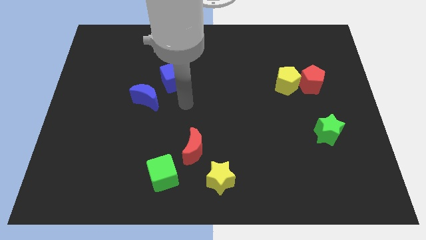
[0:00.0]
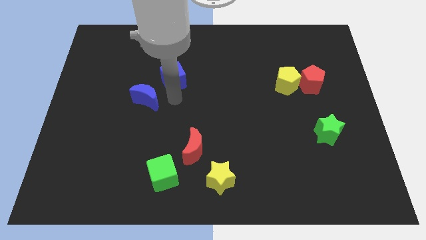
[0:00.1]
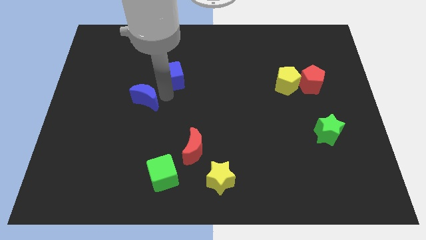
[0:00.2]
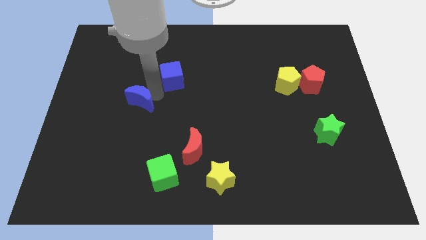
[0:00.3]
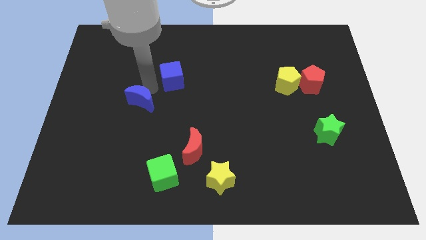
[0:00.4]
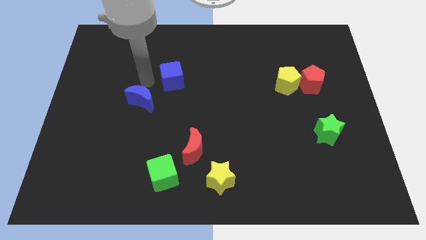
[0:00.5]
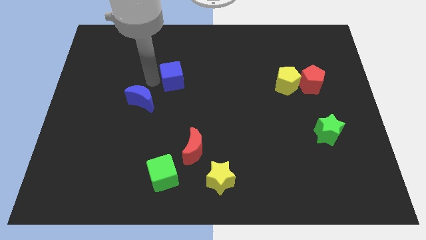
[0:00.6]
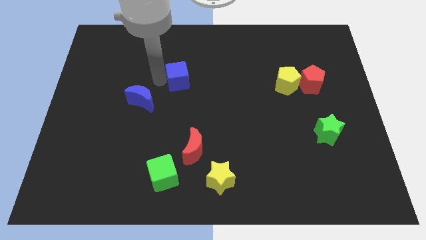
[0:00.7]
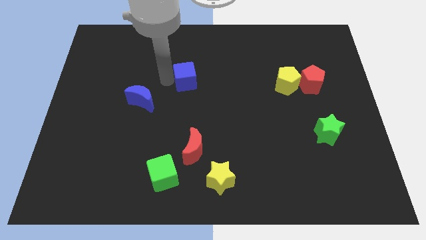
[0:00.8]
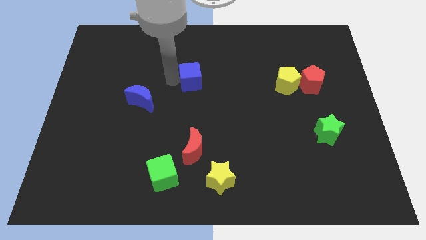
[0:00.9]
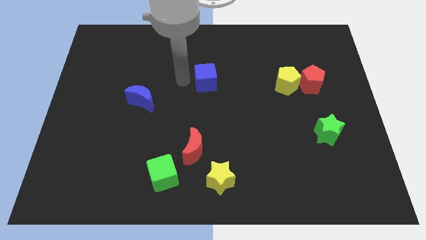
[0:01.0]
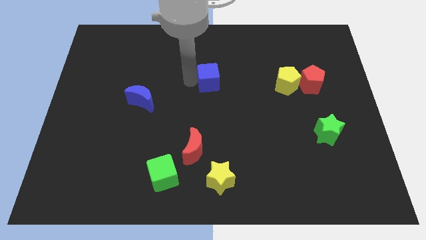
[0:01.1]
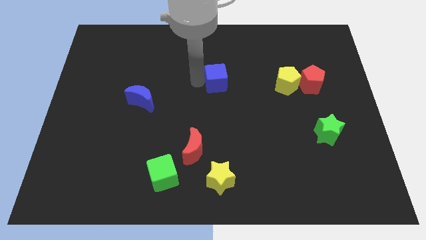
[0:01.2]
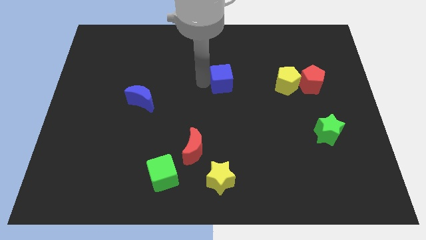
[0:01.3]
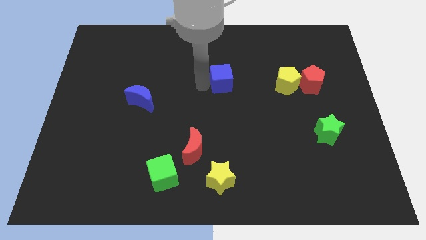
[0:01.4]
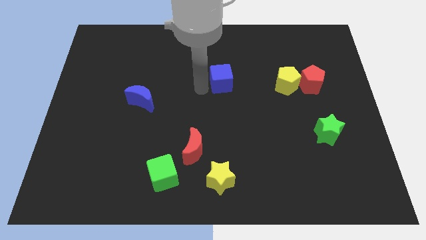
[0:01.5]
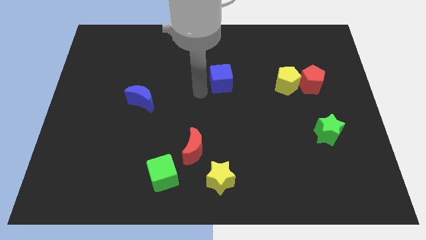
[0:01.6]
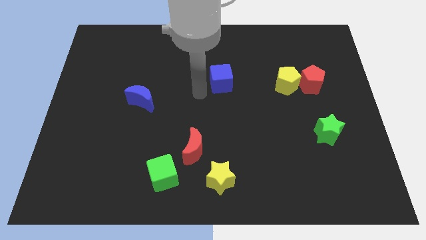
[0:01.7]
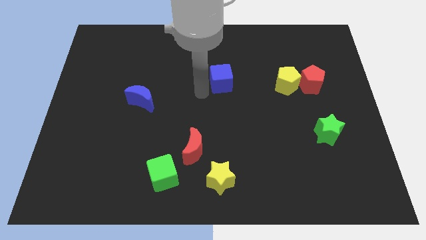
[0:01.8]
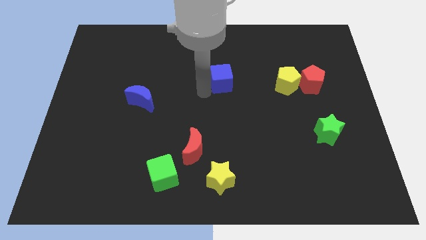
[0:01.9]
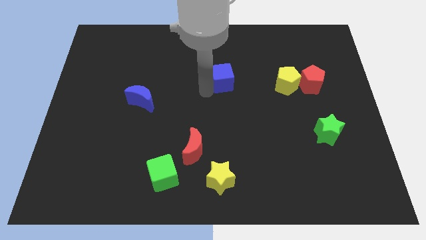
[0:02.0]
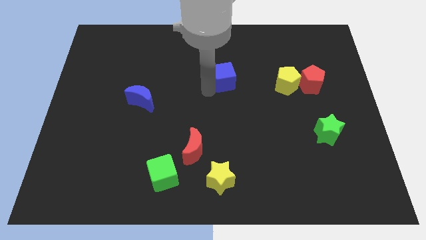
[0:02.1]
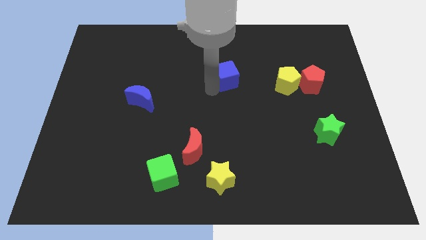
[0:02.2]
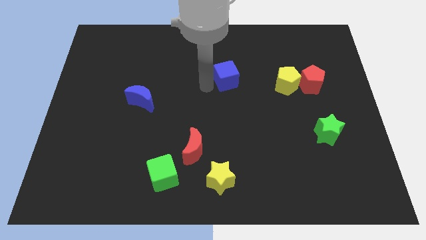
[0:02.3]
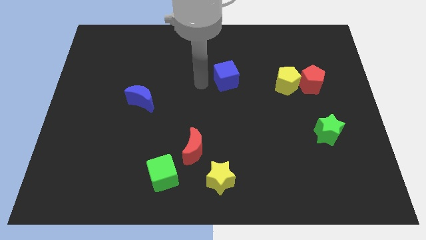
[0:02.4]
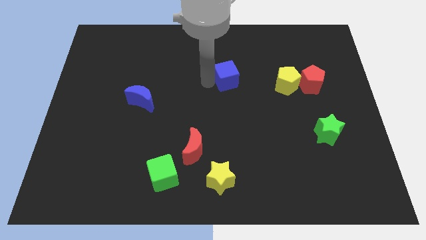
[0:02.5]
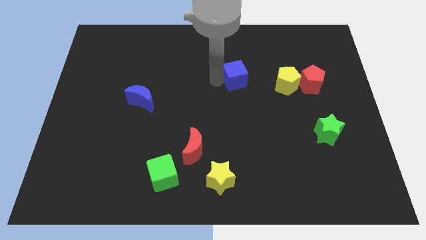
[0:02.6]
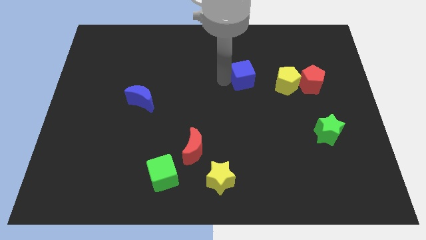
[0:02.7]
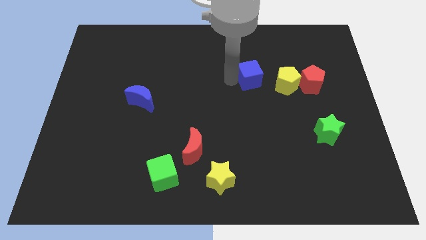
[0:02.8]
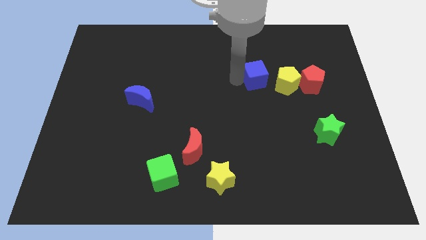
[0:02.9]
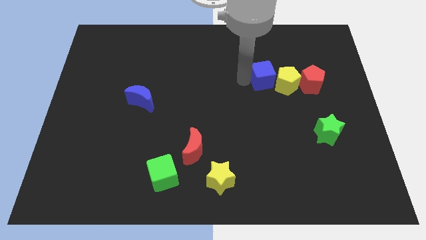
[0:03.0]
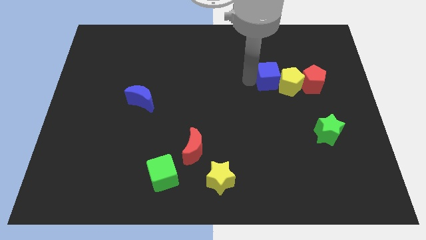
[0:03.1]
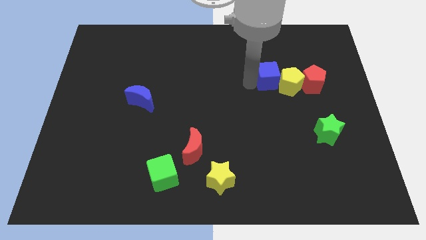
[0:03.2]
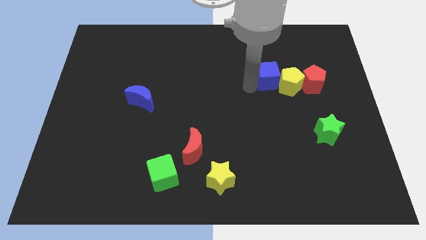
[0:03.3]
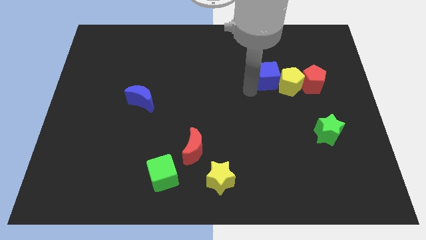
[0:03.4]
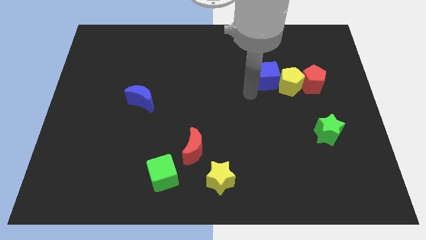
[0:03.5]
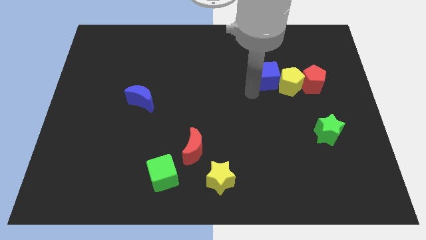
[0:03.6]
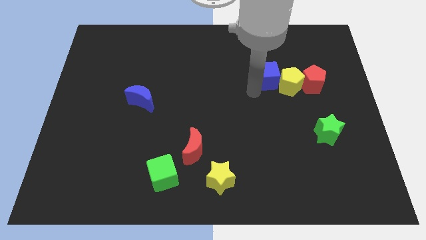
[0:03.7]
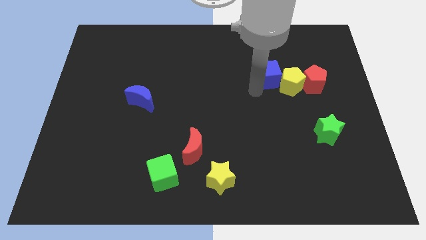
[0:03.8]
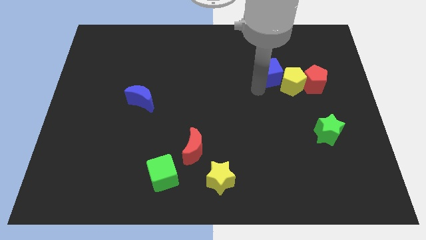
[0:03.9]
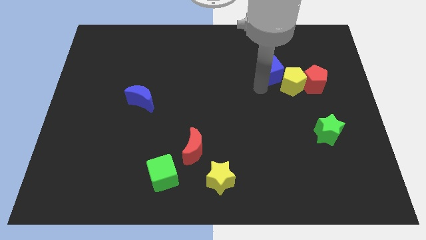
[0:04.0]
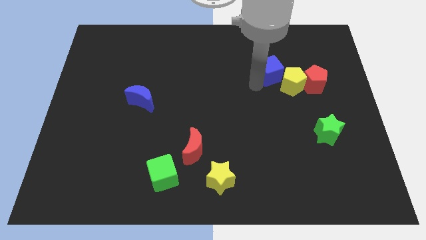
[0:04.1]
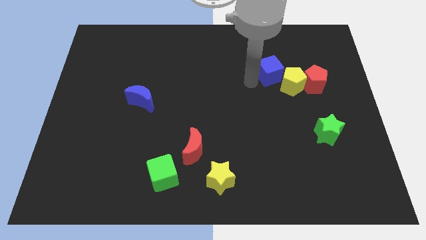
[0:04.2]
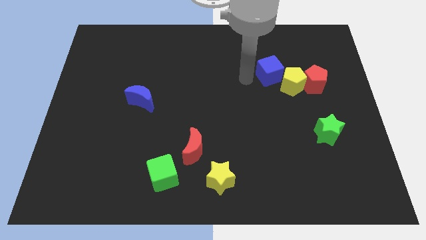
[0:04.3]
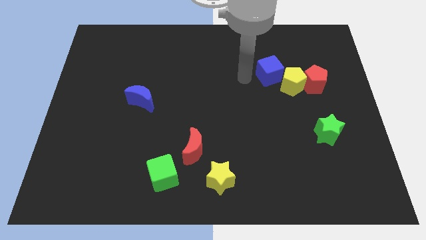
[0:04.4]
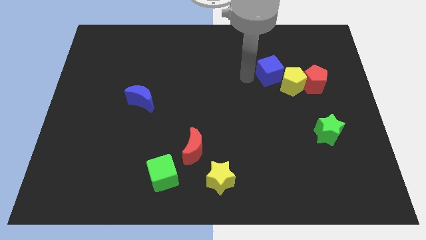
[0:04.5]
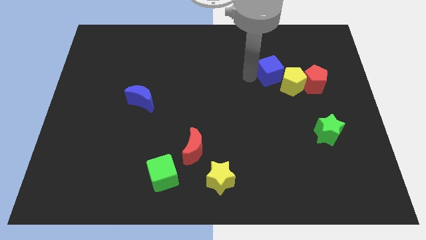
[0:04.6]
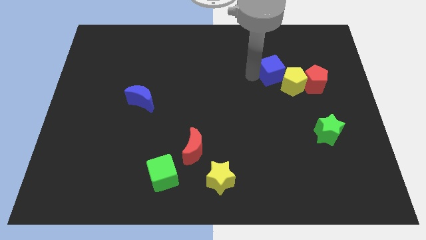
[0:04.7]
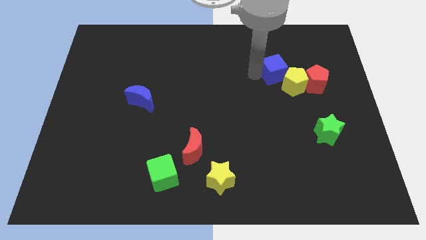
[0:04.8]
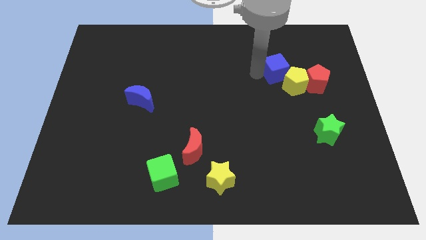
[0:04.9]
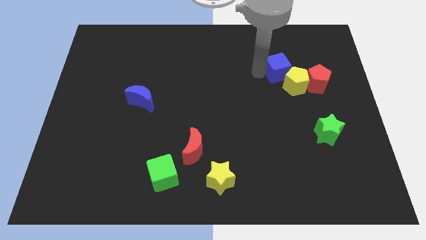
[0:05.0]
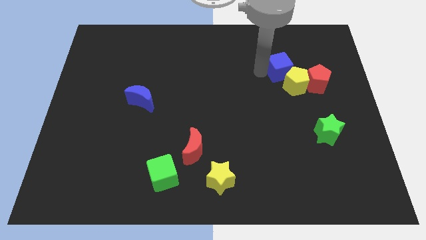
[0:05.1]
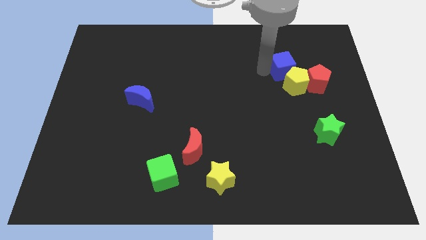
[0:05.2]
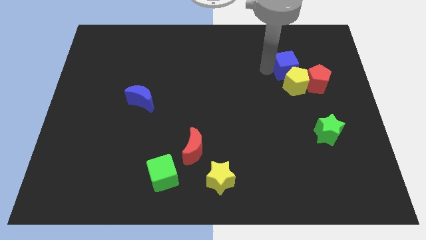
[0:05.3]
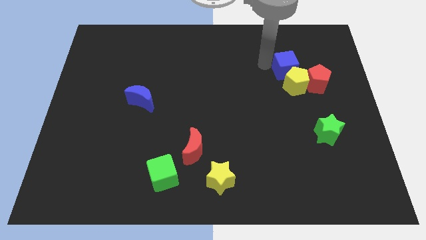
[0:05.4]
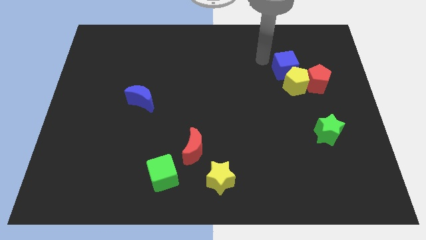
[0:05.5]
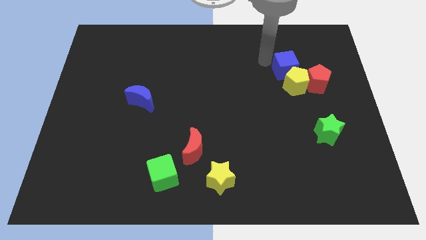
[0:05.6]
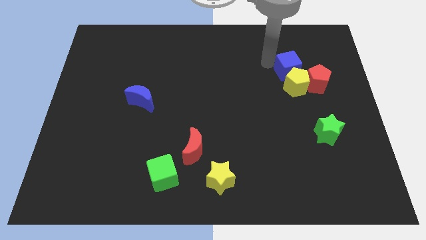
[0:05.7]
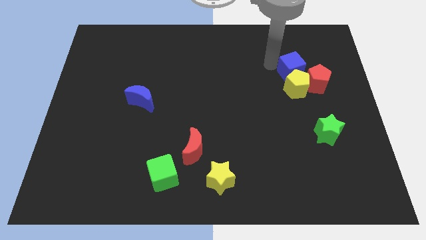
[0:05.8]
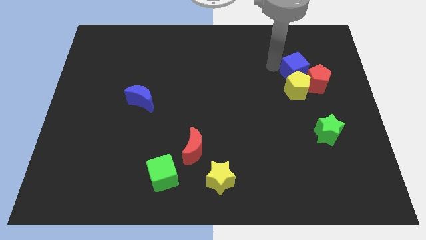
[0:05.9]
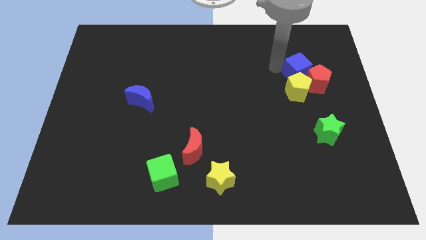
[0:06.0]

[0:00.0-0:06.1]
move the blue cube to the red pentagon

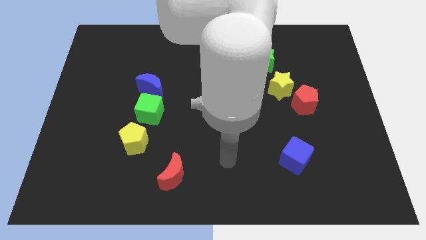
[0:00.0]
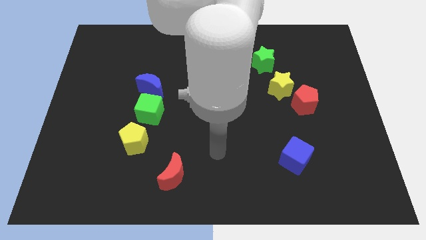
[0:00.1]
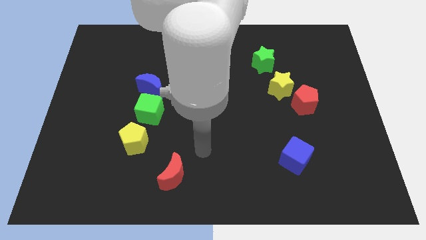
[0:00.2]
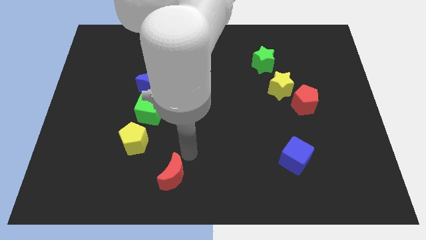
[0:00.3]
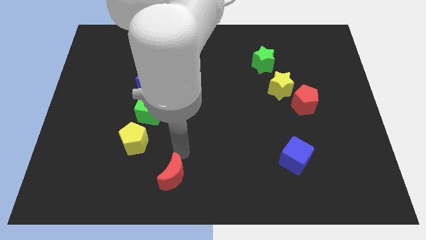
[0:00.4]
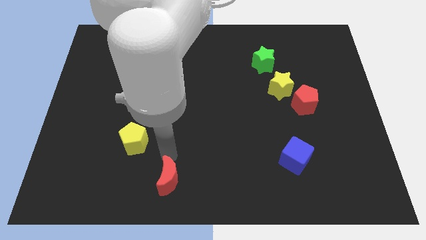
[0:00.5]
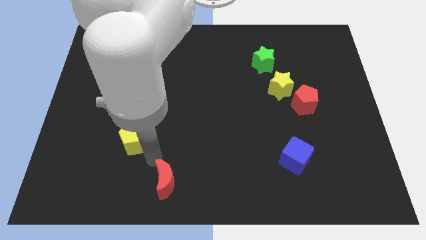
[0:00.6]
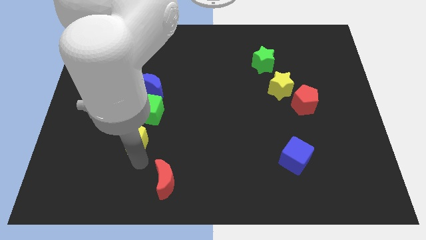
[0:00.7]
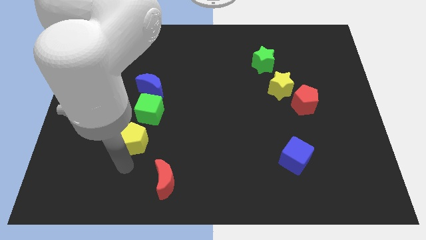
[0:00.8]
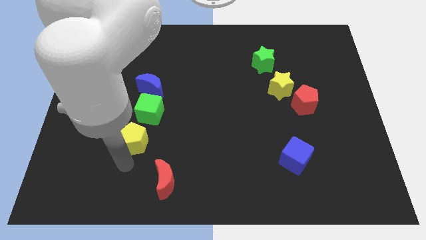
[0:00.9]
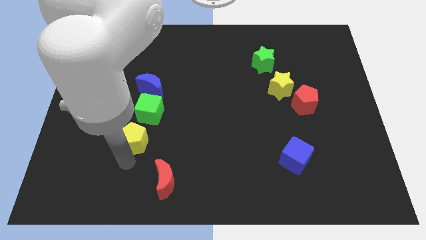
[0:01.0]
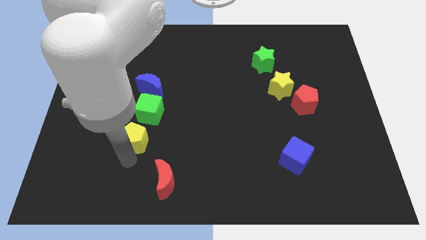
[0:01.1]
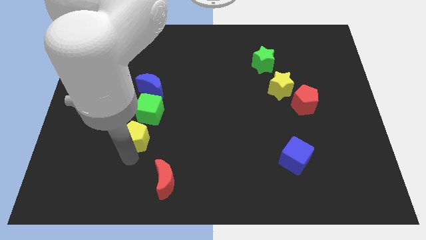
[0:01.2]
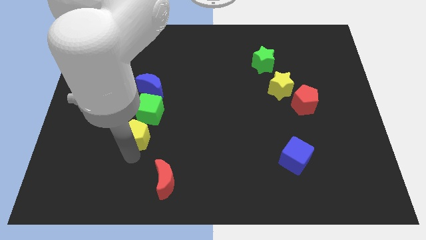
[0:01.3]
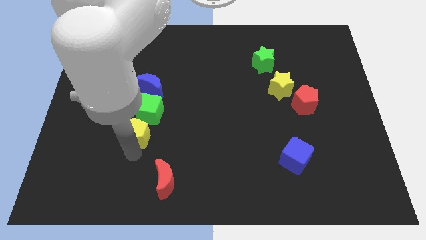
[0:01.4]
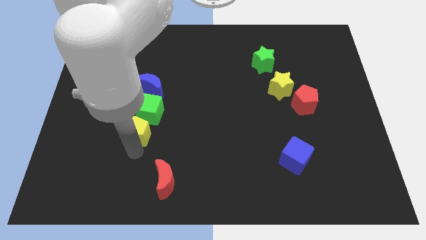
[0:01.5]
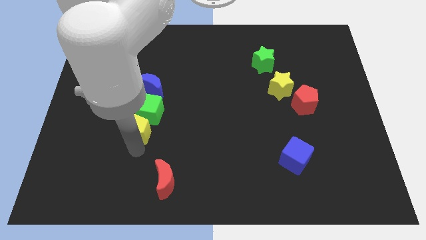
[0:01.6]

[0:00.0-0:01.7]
slide the yellow pentagon close to the green cube
